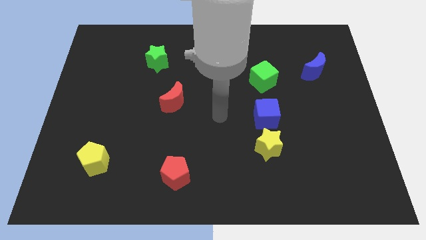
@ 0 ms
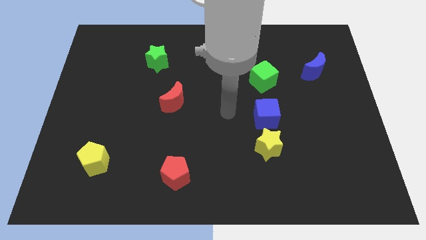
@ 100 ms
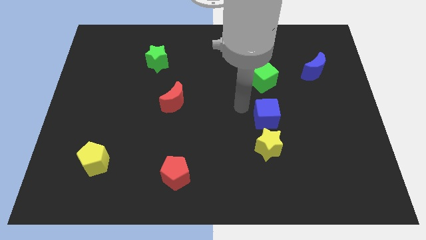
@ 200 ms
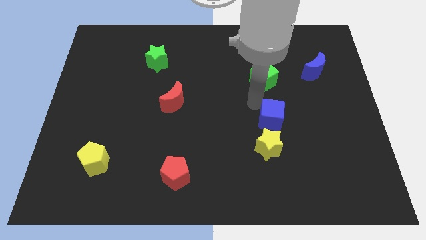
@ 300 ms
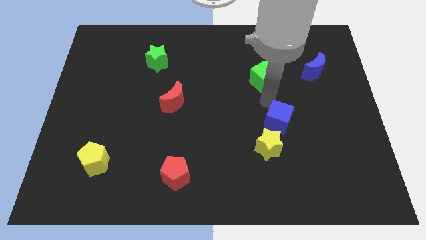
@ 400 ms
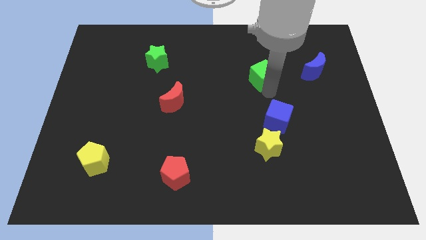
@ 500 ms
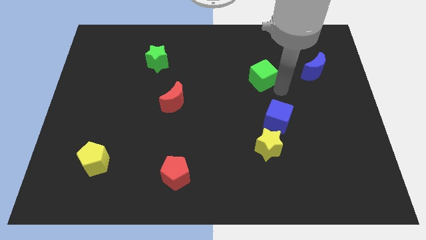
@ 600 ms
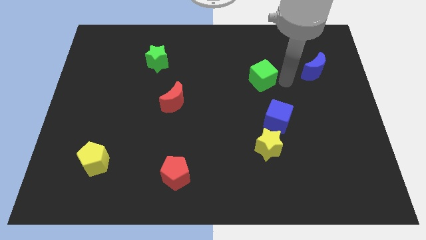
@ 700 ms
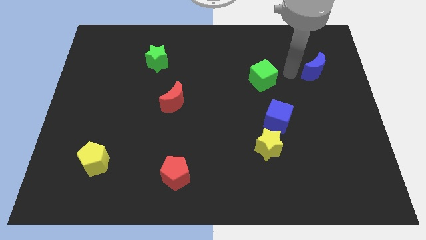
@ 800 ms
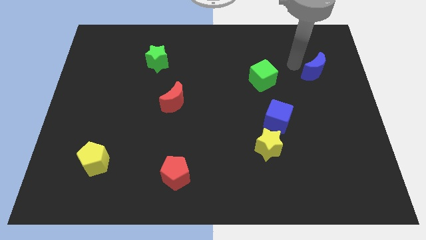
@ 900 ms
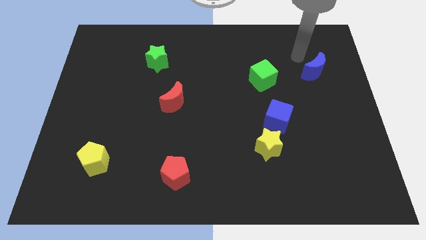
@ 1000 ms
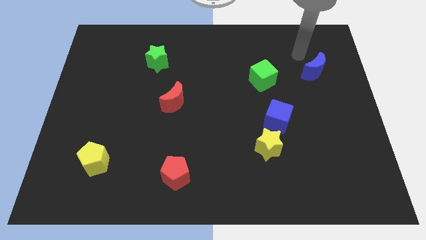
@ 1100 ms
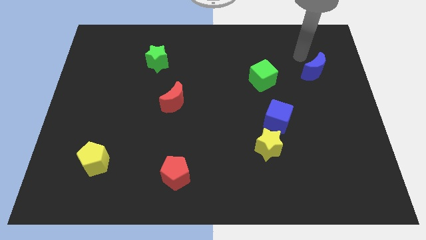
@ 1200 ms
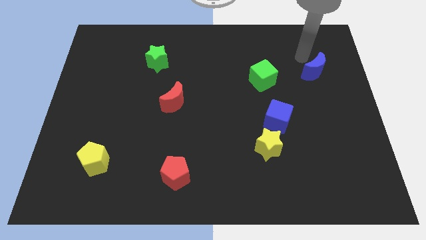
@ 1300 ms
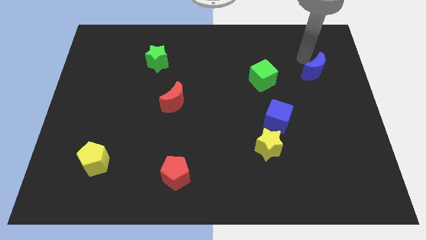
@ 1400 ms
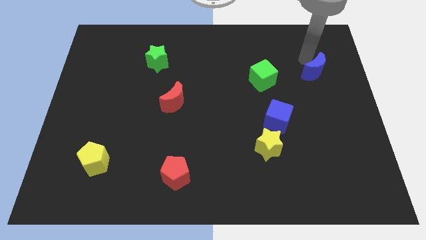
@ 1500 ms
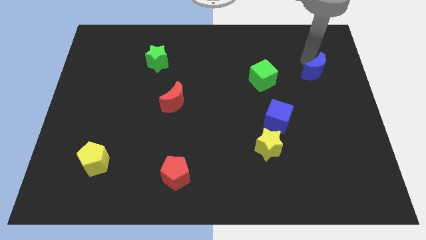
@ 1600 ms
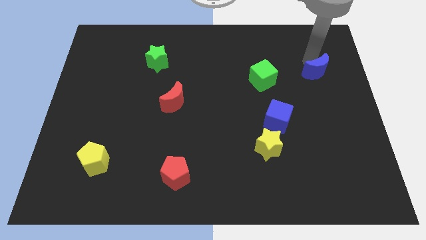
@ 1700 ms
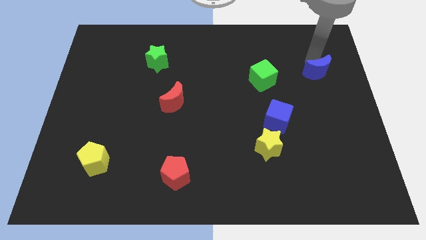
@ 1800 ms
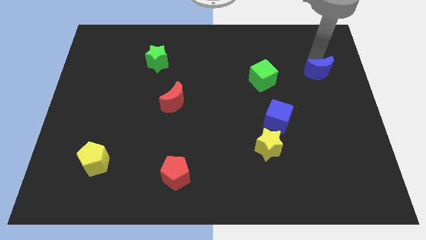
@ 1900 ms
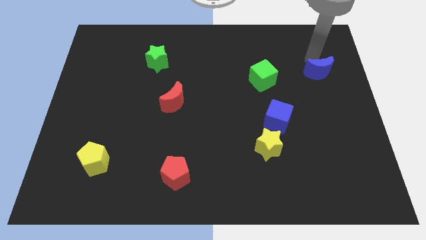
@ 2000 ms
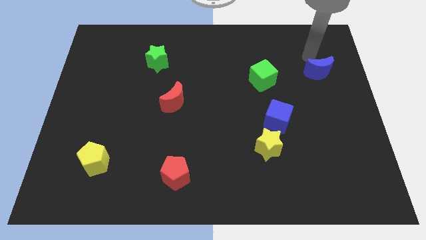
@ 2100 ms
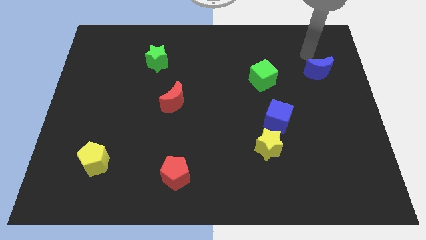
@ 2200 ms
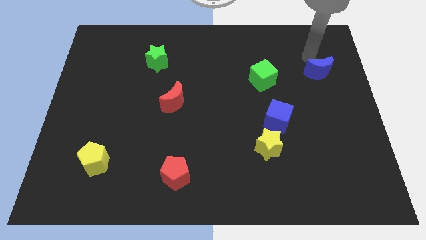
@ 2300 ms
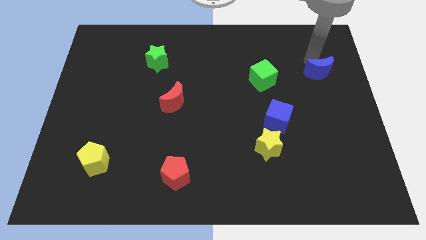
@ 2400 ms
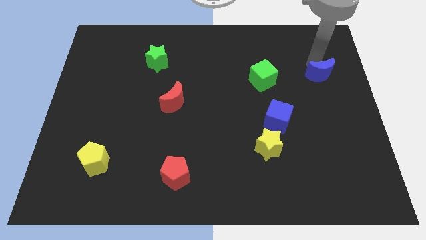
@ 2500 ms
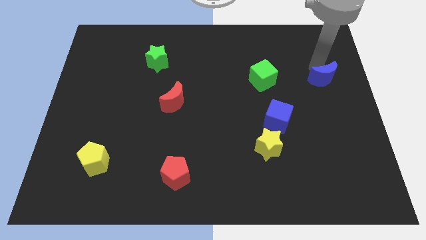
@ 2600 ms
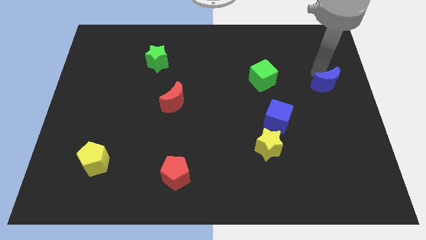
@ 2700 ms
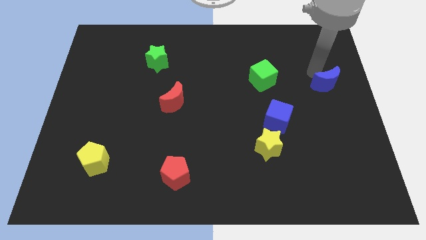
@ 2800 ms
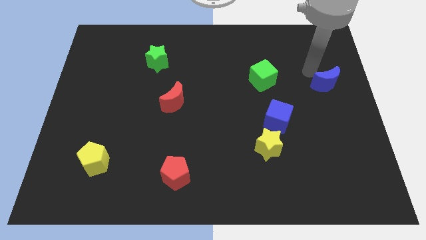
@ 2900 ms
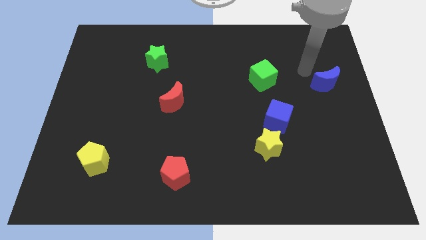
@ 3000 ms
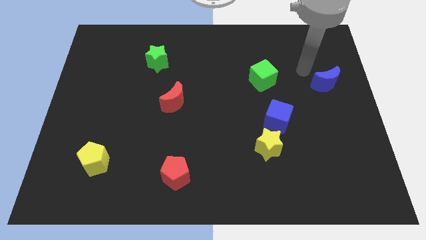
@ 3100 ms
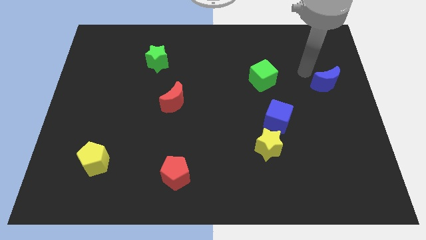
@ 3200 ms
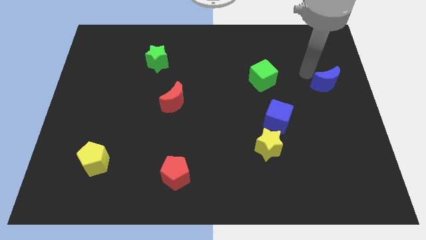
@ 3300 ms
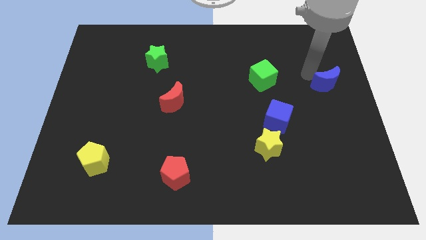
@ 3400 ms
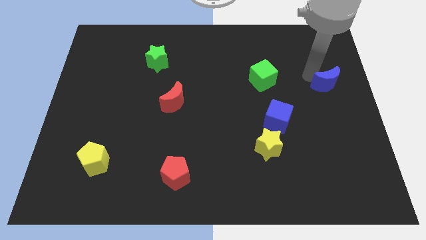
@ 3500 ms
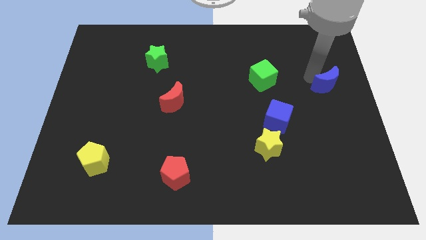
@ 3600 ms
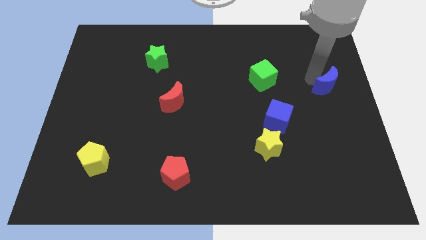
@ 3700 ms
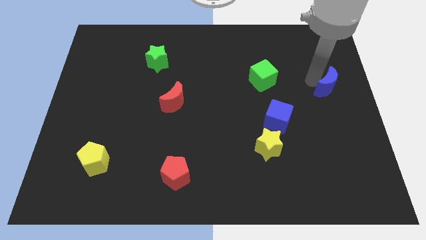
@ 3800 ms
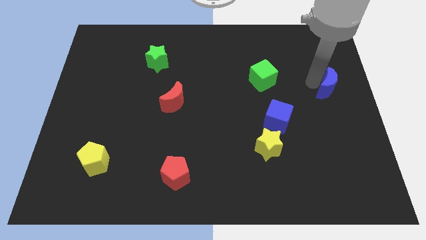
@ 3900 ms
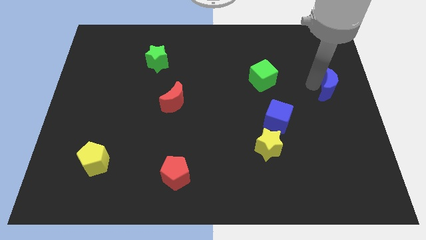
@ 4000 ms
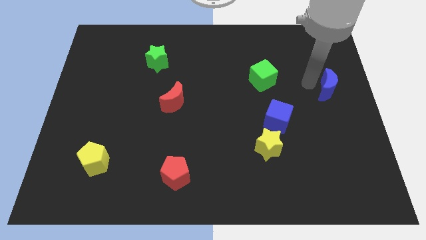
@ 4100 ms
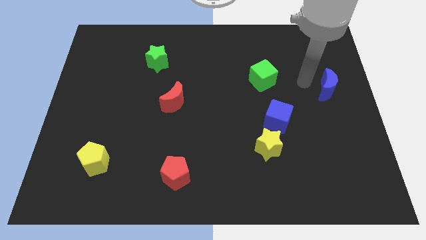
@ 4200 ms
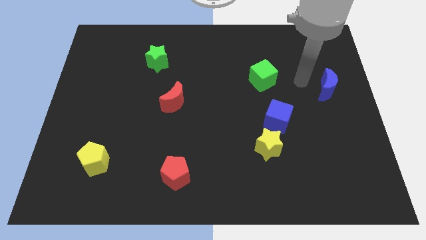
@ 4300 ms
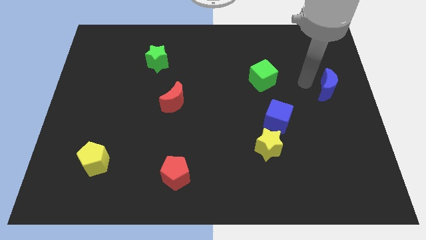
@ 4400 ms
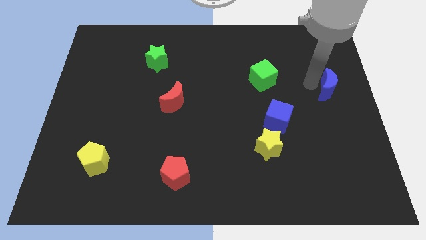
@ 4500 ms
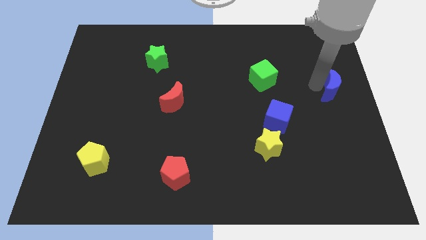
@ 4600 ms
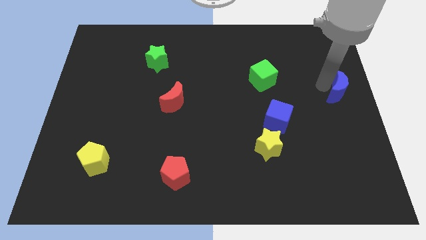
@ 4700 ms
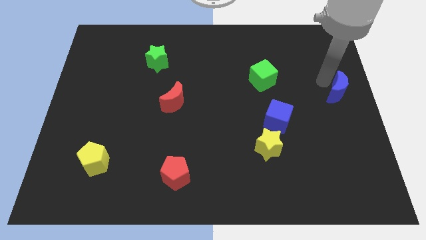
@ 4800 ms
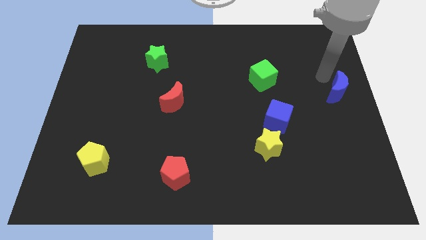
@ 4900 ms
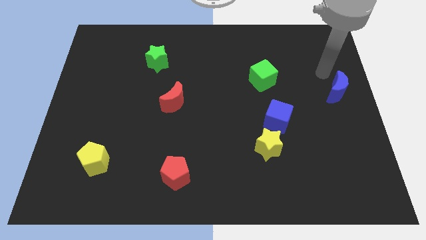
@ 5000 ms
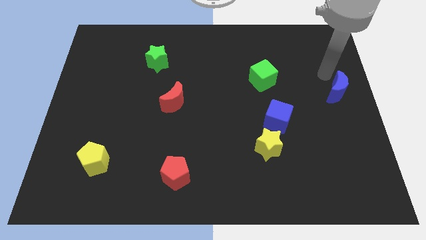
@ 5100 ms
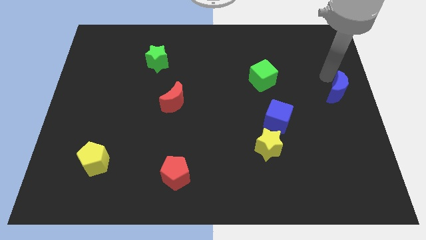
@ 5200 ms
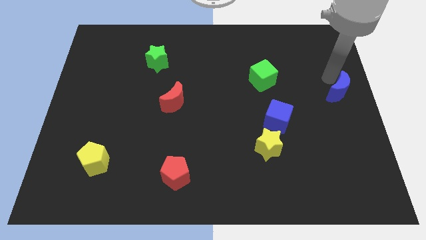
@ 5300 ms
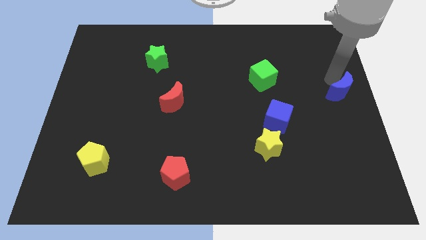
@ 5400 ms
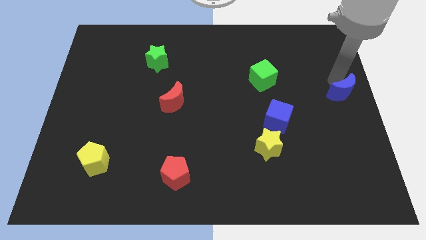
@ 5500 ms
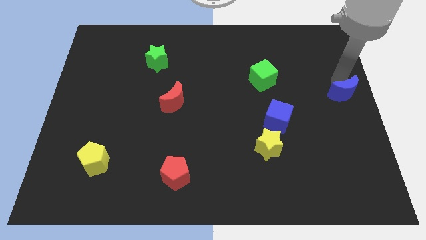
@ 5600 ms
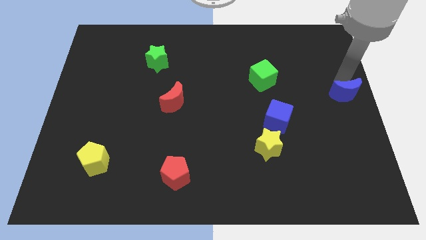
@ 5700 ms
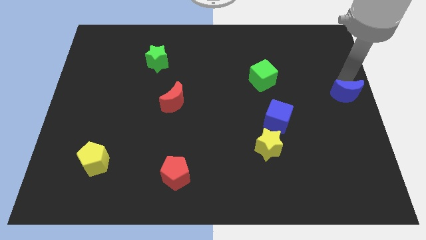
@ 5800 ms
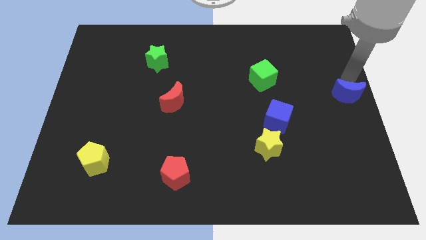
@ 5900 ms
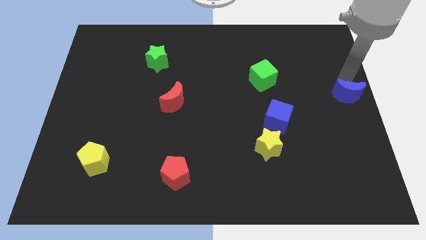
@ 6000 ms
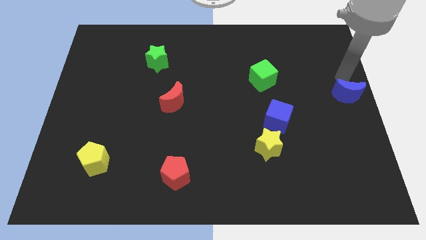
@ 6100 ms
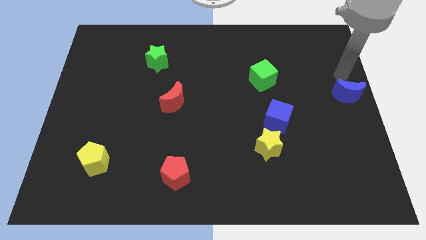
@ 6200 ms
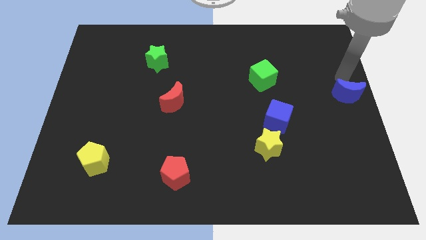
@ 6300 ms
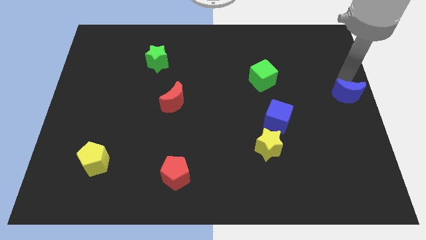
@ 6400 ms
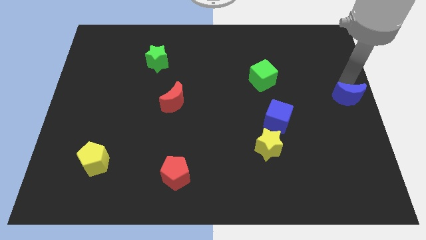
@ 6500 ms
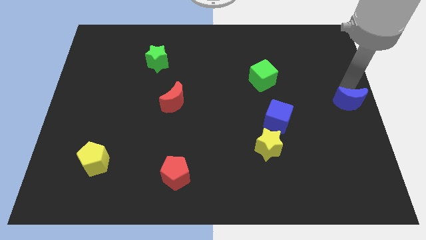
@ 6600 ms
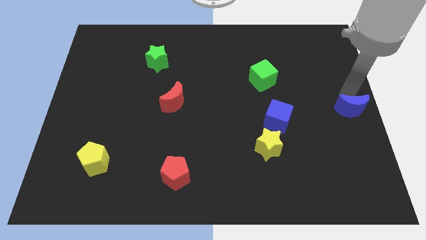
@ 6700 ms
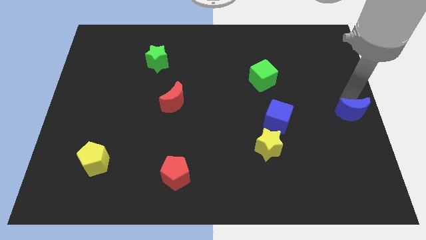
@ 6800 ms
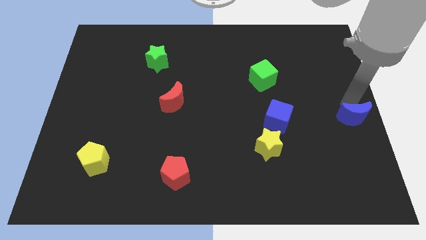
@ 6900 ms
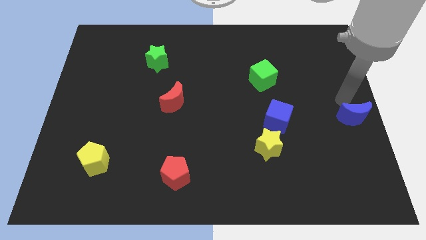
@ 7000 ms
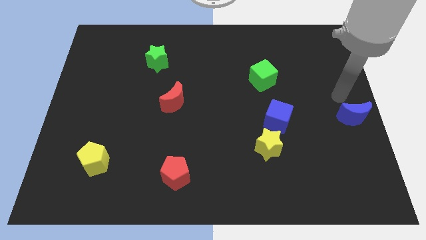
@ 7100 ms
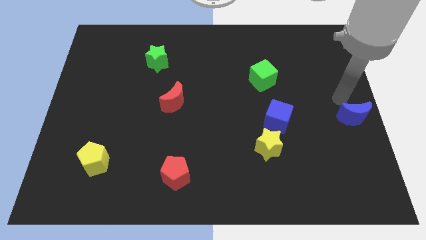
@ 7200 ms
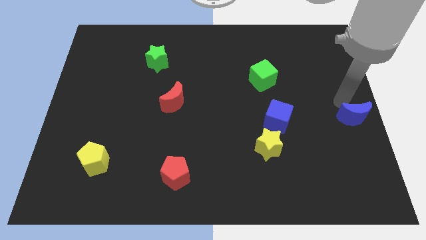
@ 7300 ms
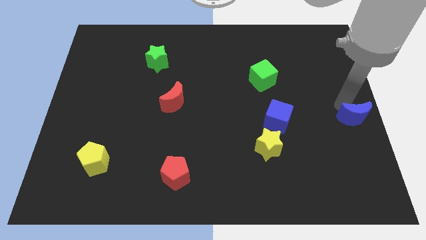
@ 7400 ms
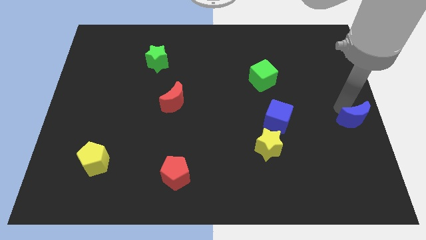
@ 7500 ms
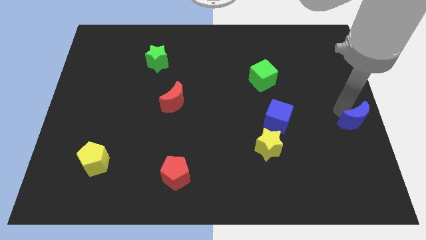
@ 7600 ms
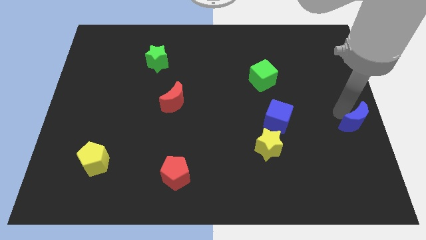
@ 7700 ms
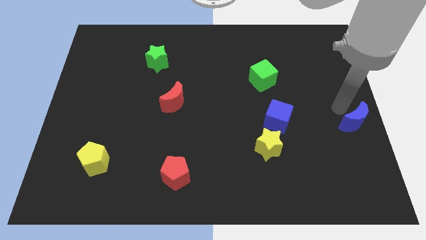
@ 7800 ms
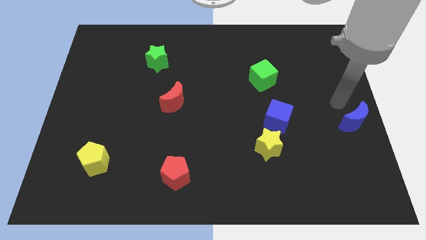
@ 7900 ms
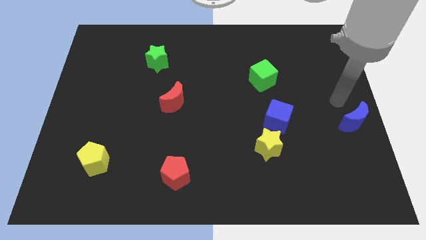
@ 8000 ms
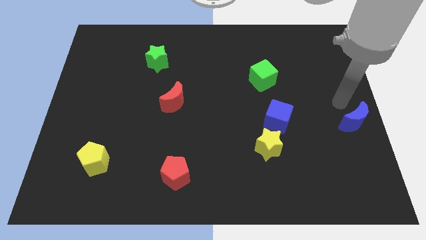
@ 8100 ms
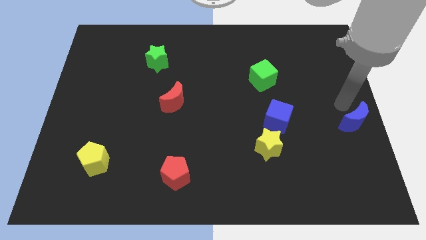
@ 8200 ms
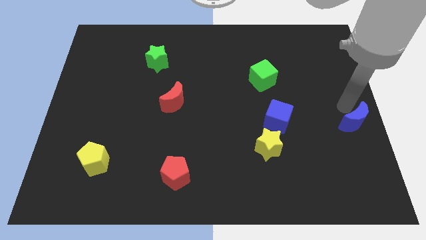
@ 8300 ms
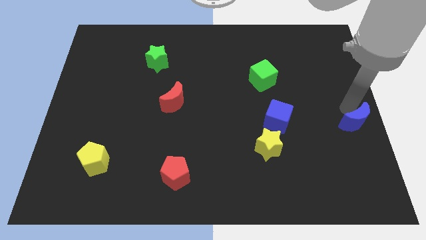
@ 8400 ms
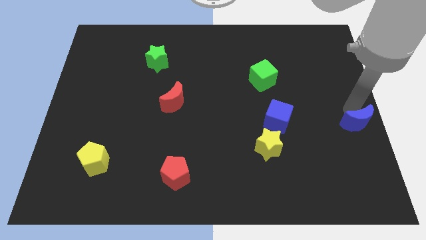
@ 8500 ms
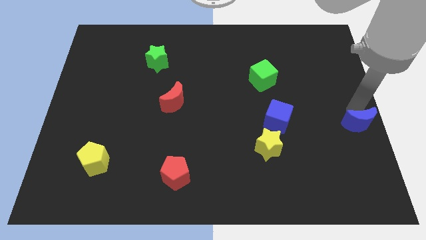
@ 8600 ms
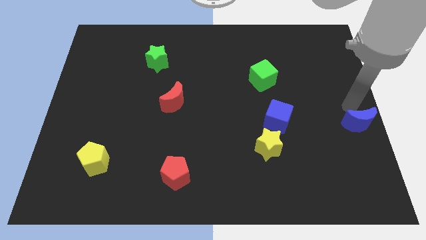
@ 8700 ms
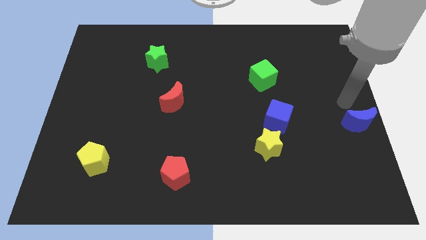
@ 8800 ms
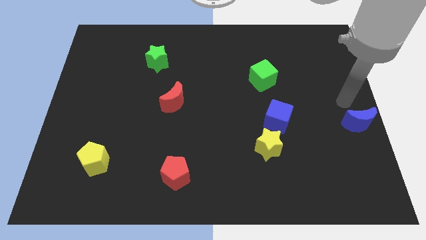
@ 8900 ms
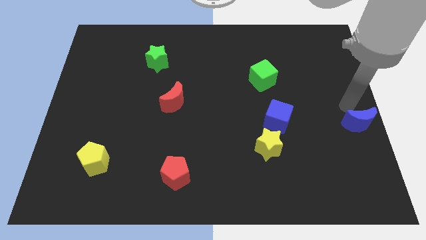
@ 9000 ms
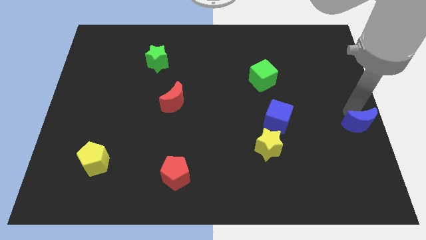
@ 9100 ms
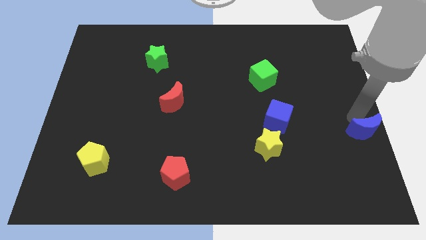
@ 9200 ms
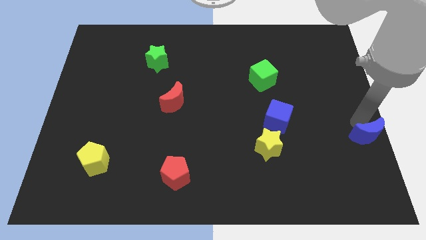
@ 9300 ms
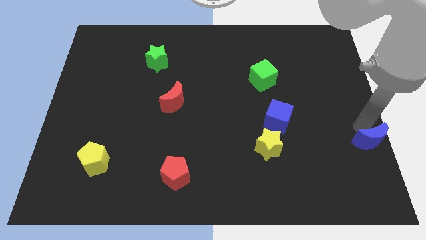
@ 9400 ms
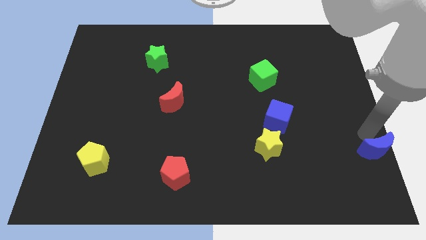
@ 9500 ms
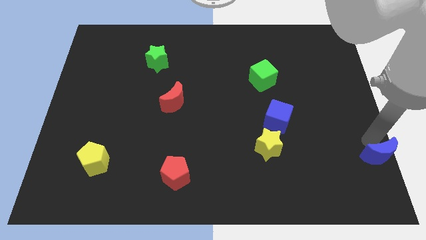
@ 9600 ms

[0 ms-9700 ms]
move the blue moon to the bottom right
